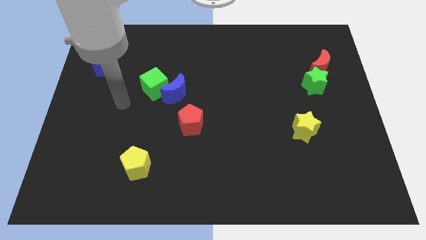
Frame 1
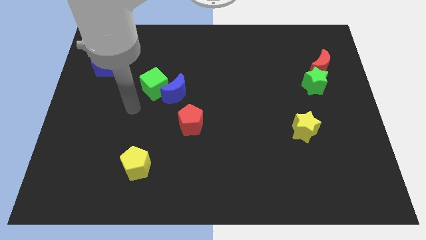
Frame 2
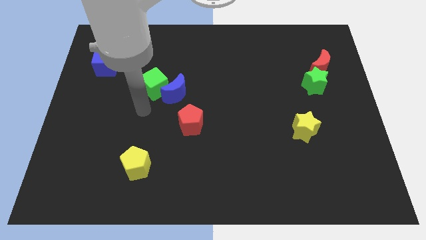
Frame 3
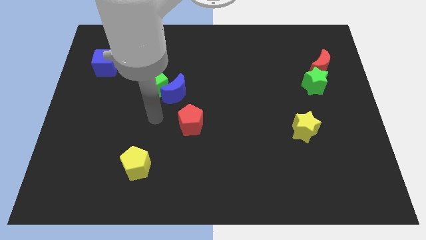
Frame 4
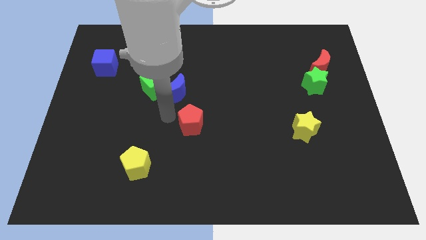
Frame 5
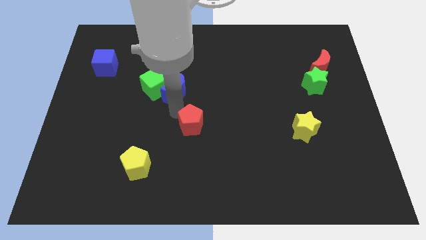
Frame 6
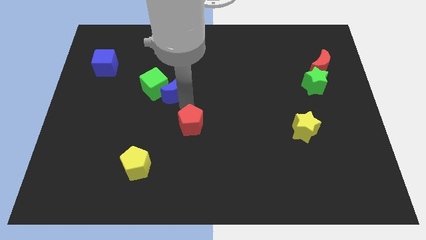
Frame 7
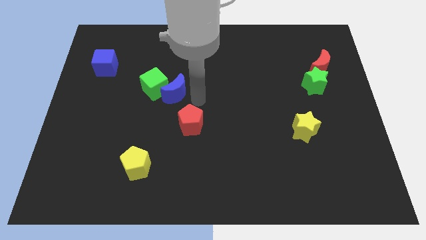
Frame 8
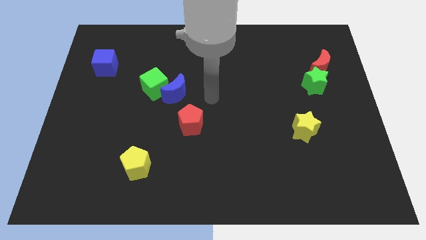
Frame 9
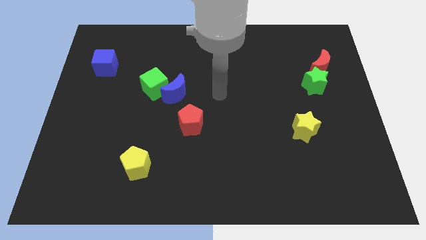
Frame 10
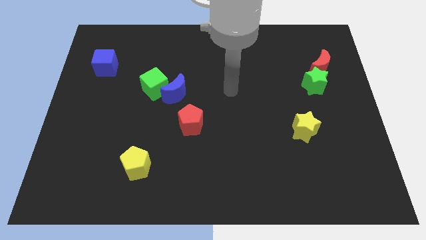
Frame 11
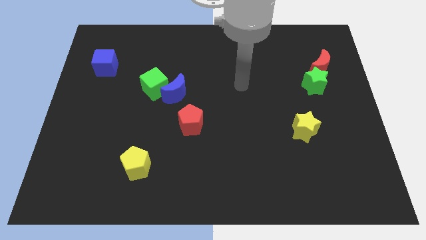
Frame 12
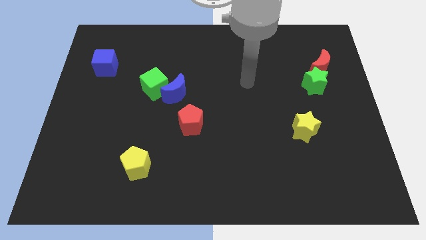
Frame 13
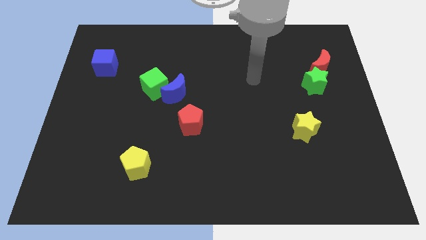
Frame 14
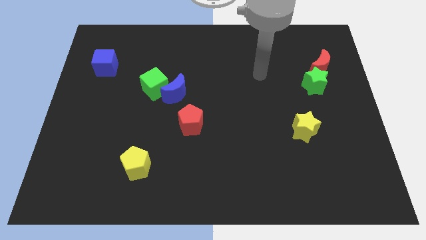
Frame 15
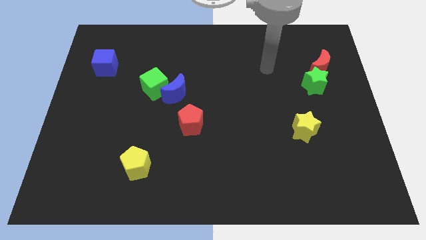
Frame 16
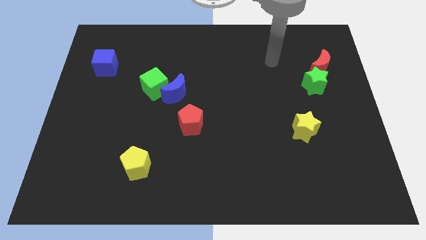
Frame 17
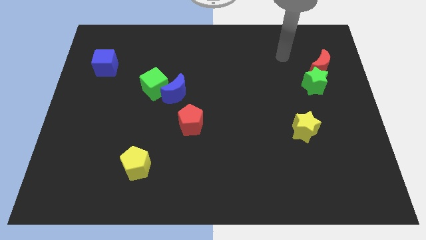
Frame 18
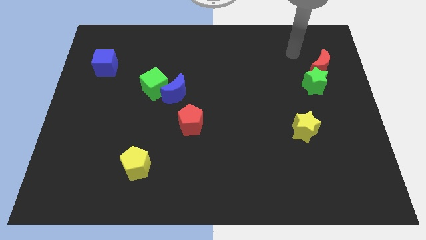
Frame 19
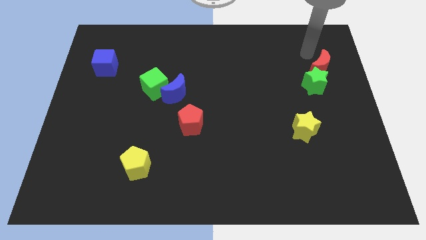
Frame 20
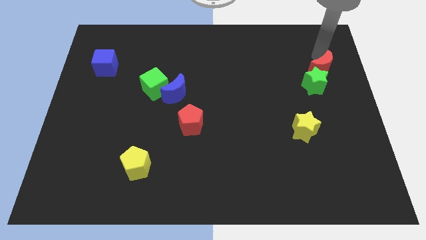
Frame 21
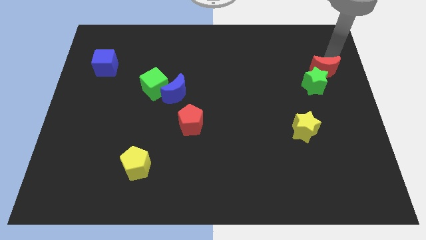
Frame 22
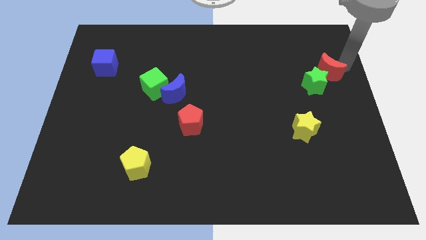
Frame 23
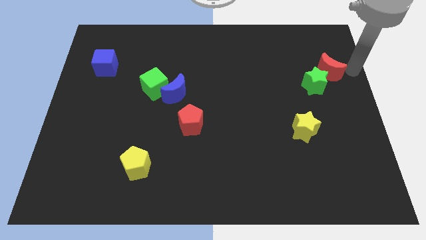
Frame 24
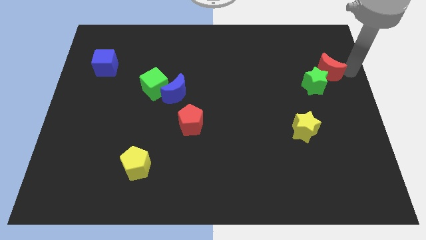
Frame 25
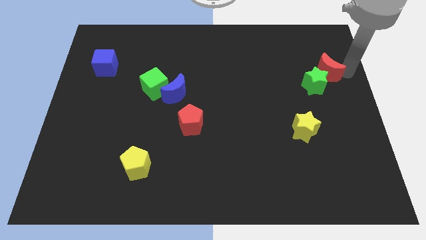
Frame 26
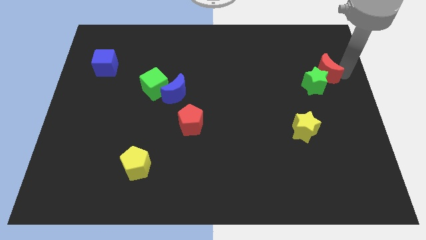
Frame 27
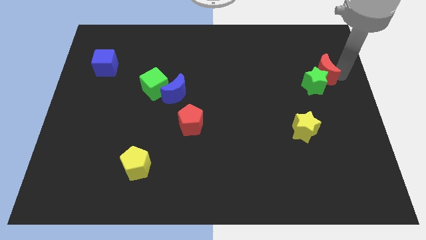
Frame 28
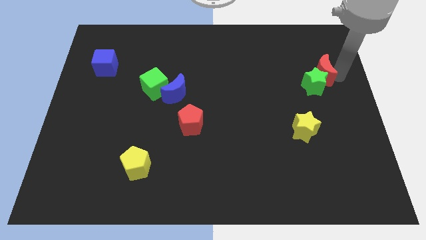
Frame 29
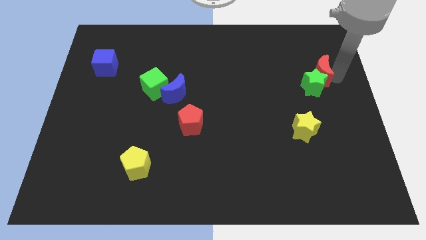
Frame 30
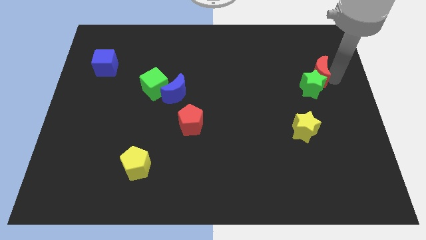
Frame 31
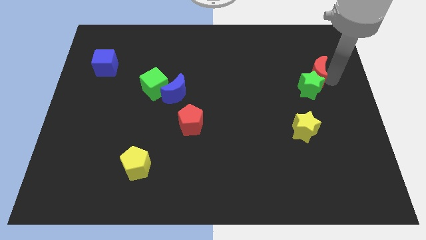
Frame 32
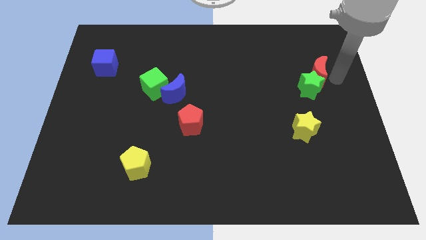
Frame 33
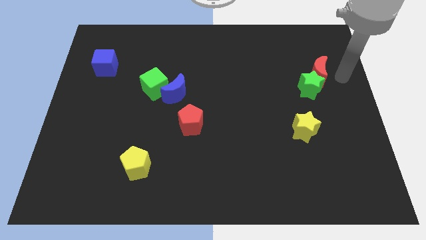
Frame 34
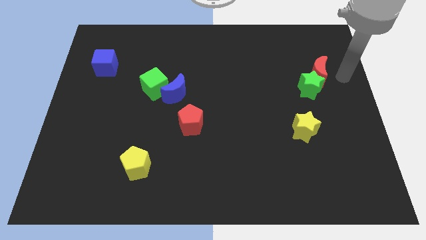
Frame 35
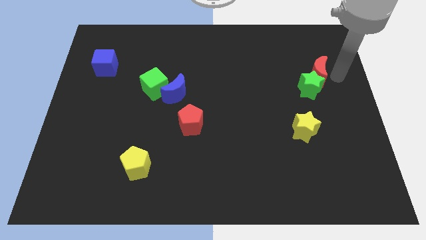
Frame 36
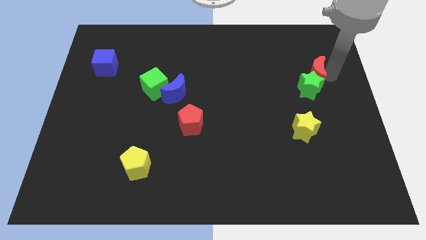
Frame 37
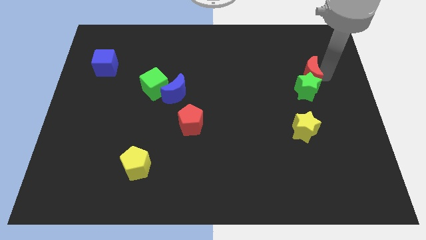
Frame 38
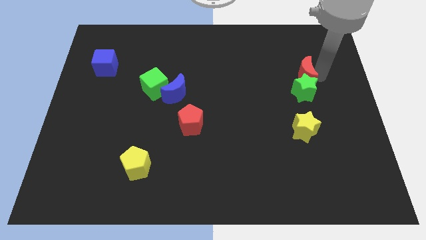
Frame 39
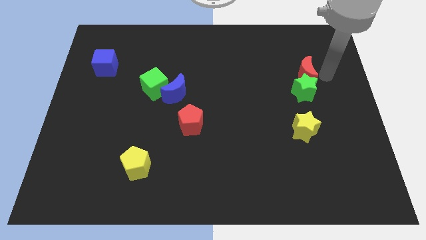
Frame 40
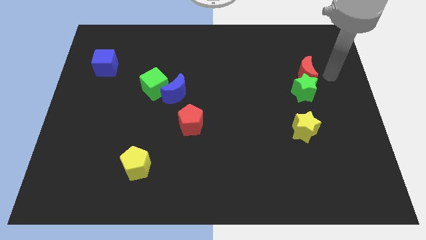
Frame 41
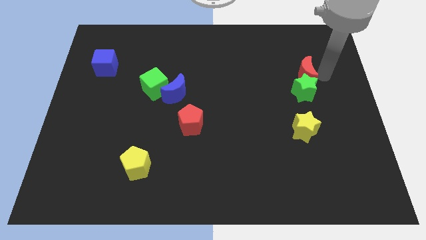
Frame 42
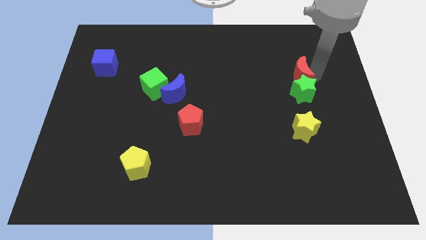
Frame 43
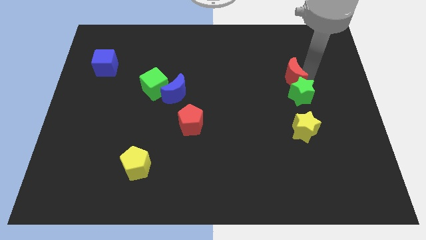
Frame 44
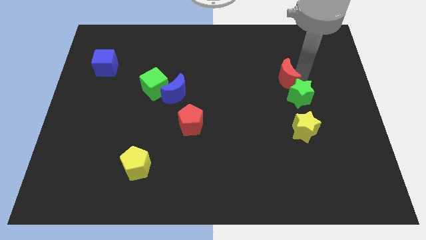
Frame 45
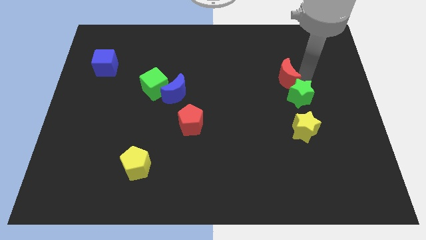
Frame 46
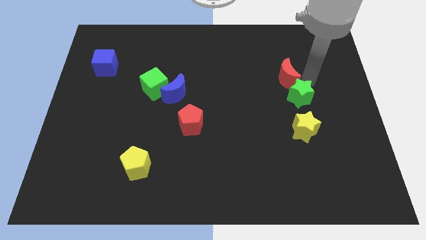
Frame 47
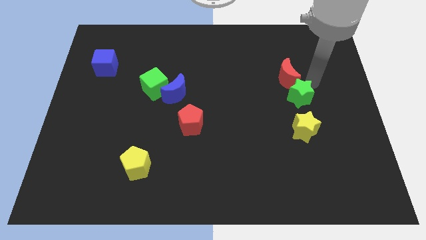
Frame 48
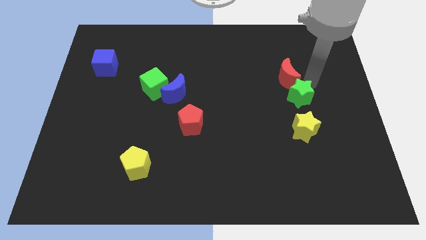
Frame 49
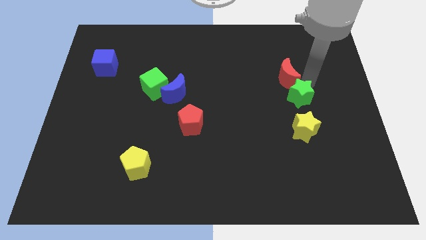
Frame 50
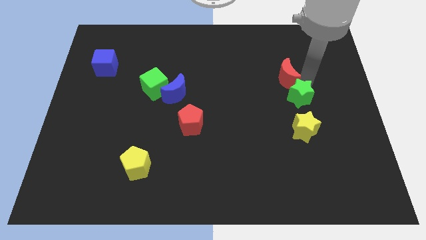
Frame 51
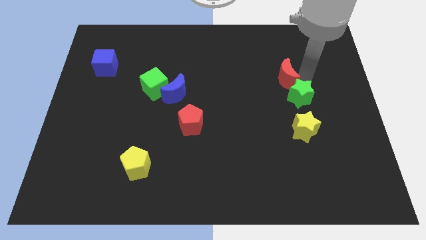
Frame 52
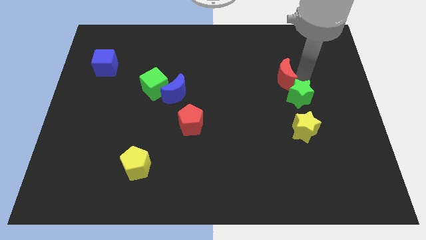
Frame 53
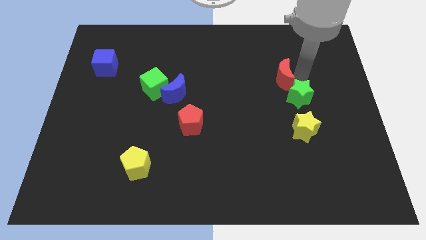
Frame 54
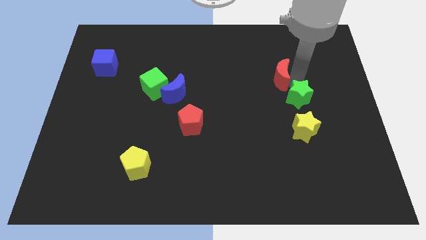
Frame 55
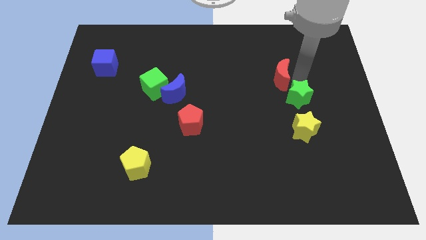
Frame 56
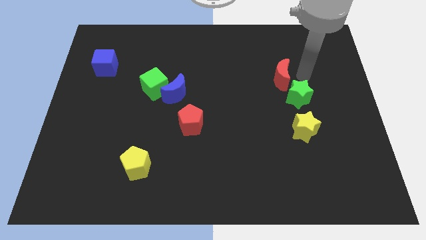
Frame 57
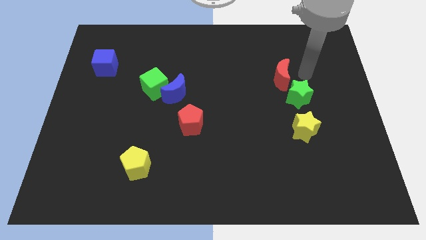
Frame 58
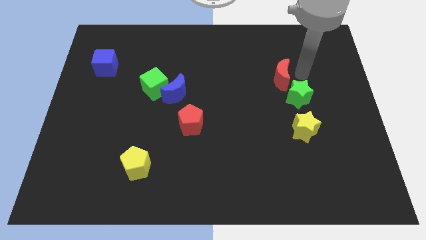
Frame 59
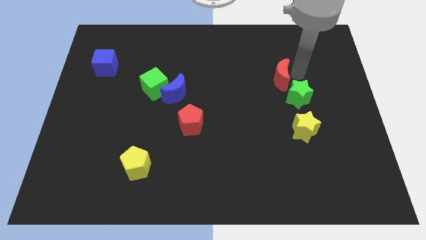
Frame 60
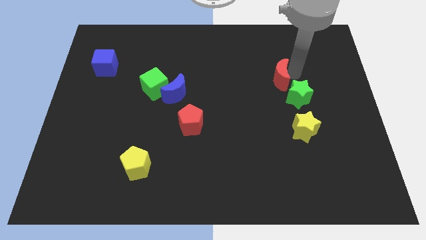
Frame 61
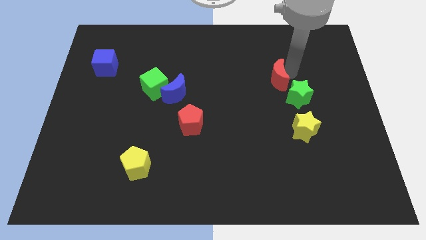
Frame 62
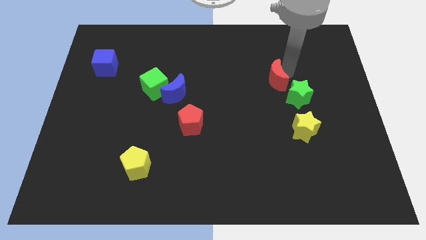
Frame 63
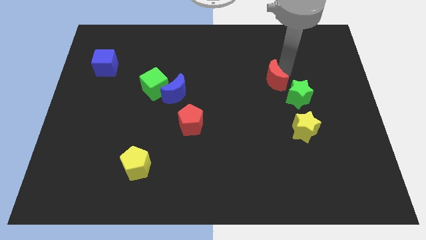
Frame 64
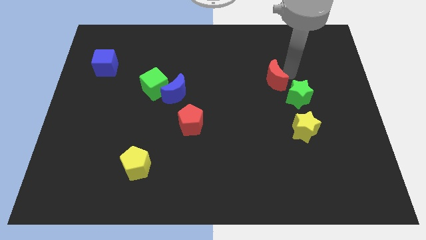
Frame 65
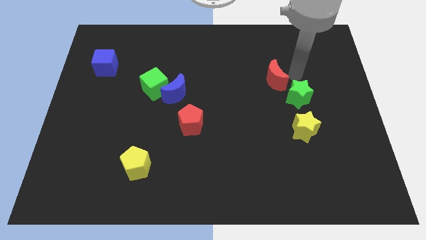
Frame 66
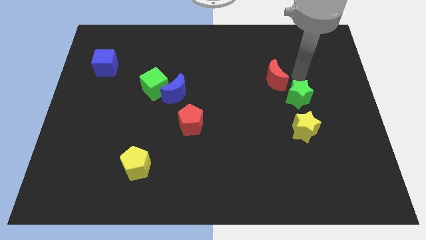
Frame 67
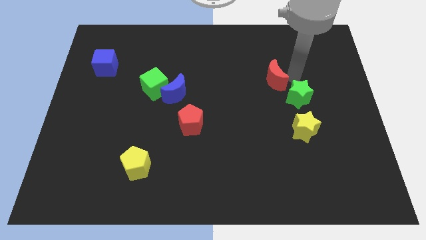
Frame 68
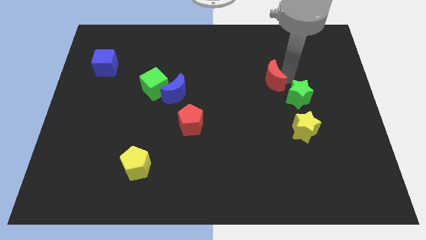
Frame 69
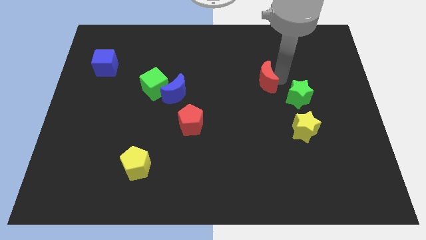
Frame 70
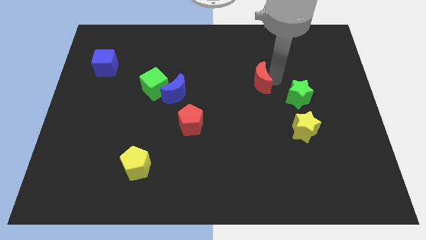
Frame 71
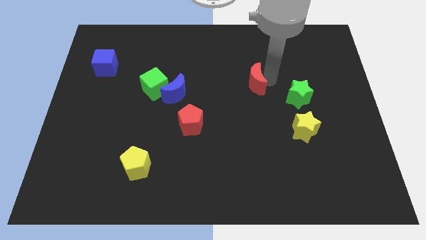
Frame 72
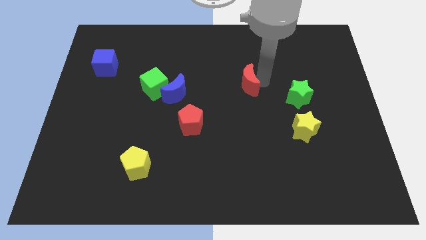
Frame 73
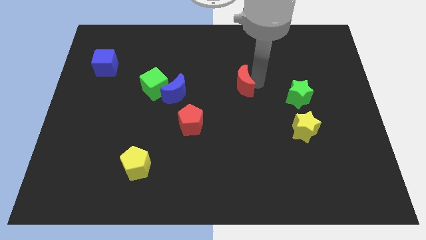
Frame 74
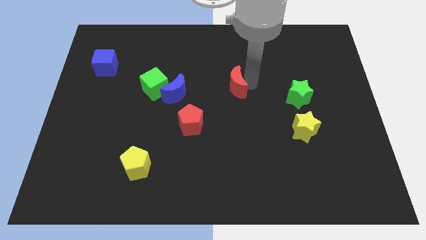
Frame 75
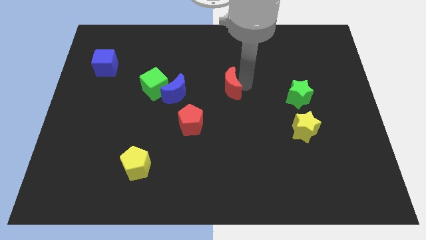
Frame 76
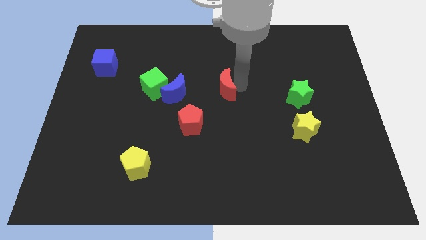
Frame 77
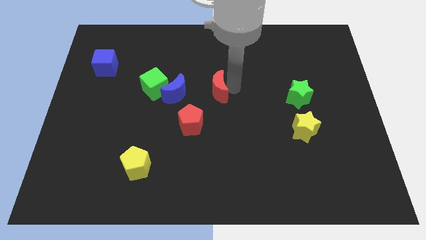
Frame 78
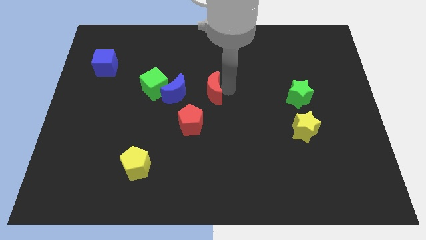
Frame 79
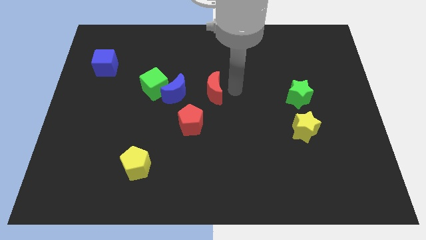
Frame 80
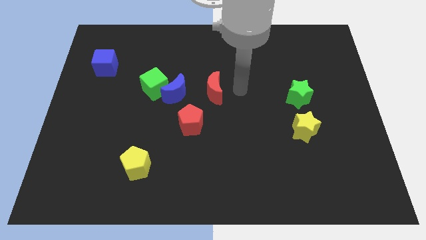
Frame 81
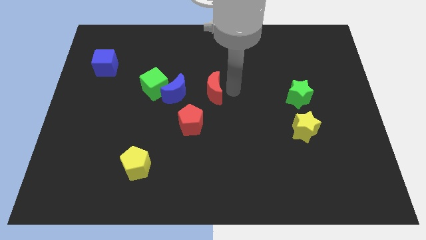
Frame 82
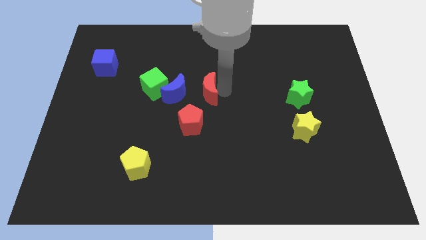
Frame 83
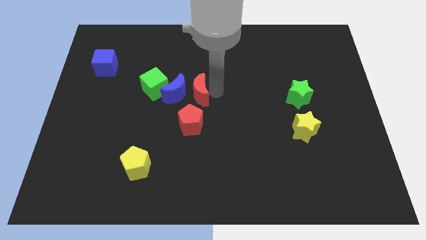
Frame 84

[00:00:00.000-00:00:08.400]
slide the red moon next to the blue moon
